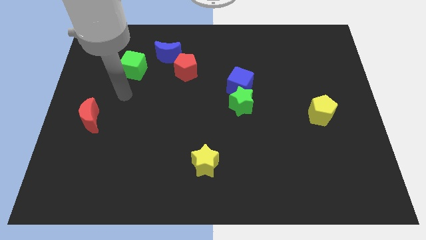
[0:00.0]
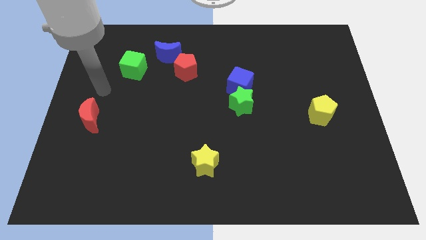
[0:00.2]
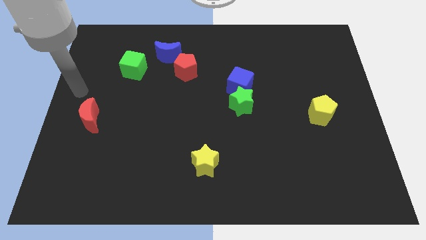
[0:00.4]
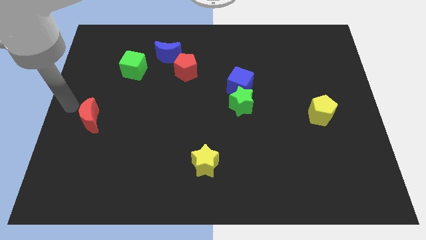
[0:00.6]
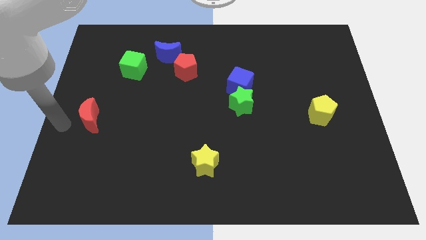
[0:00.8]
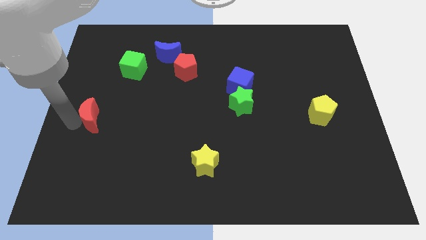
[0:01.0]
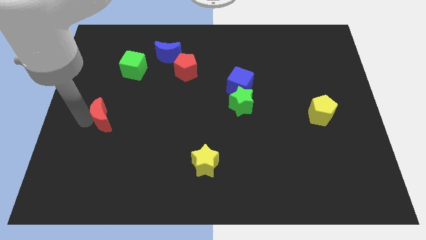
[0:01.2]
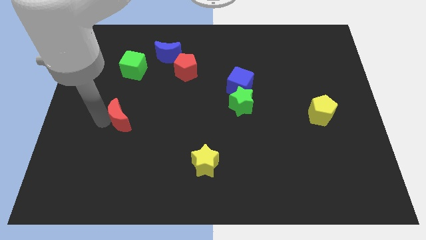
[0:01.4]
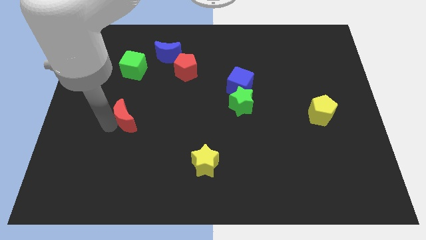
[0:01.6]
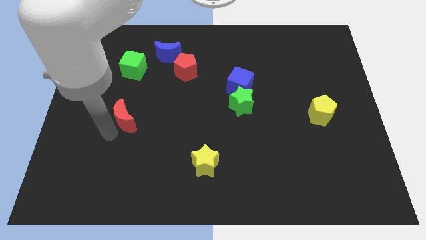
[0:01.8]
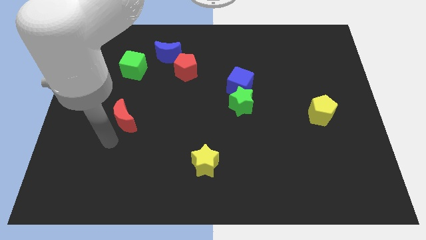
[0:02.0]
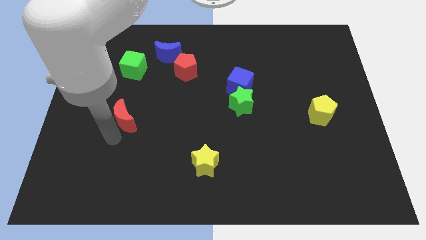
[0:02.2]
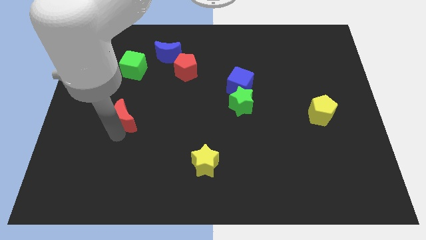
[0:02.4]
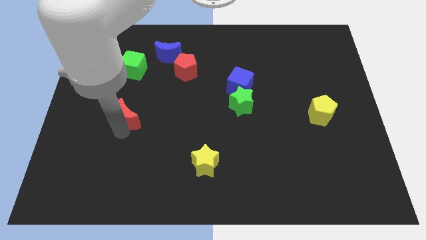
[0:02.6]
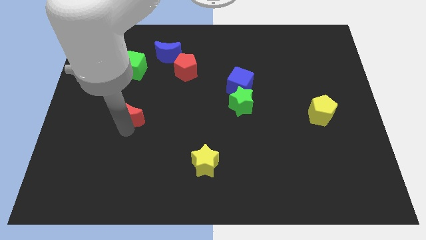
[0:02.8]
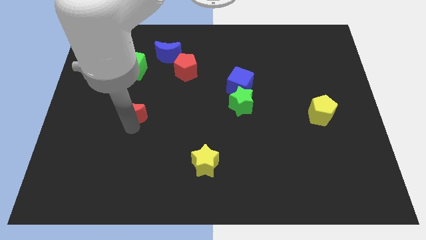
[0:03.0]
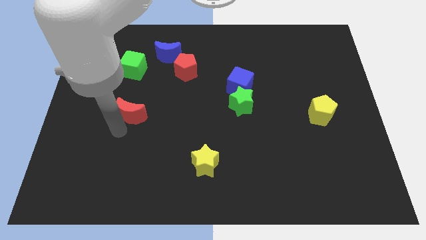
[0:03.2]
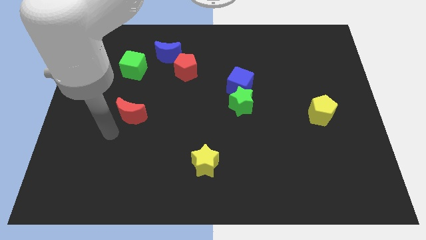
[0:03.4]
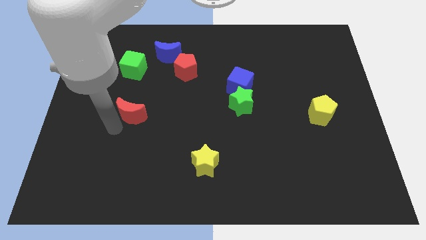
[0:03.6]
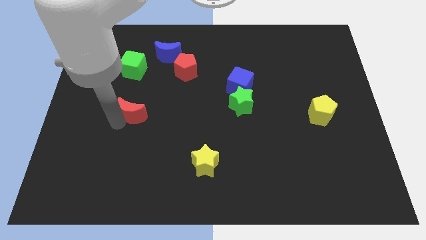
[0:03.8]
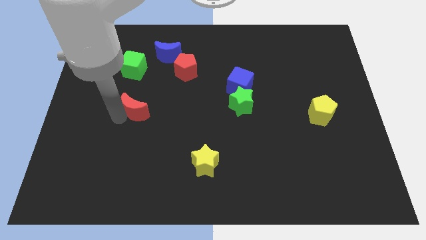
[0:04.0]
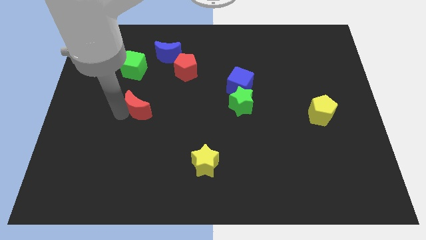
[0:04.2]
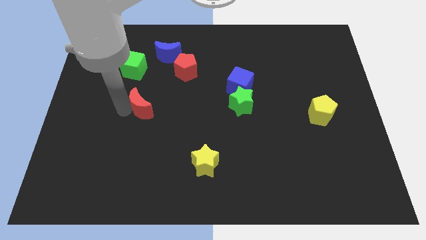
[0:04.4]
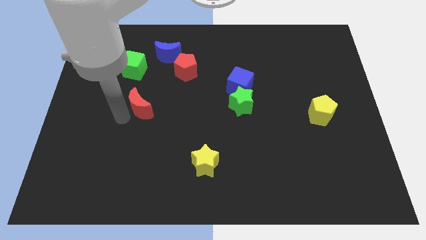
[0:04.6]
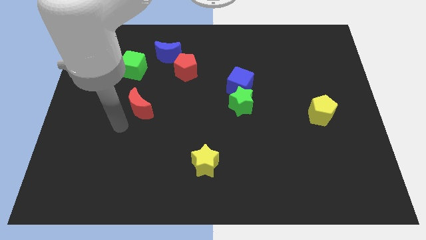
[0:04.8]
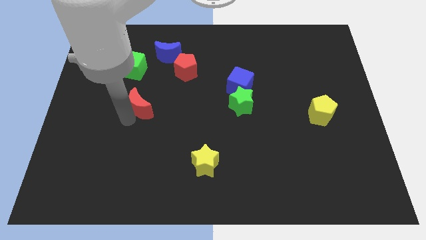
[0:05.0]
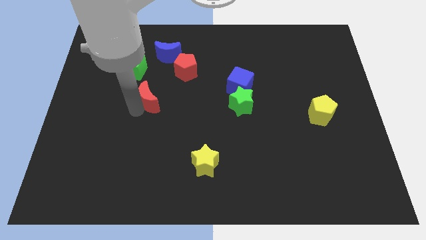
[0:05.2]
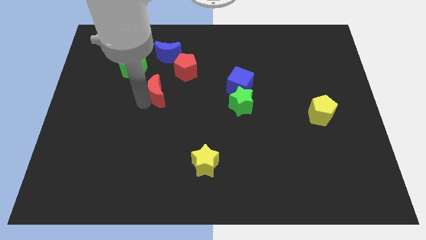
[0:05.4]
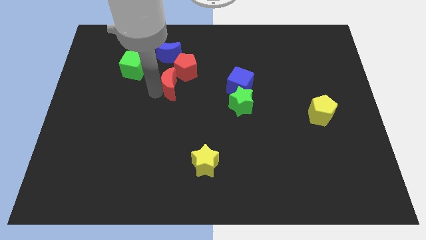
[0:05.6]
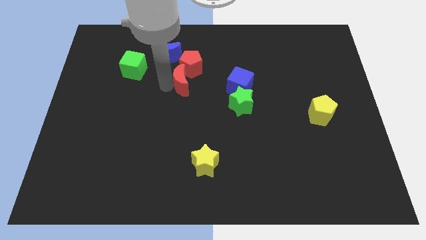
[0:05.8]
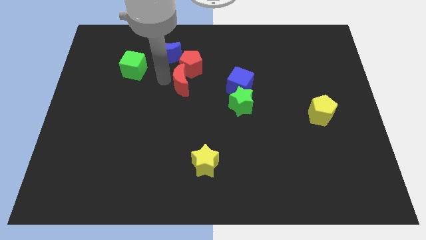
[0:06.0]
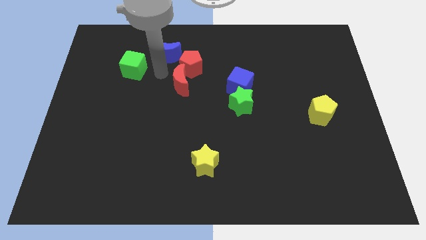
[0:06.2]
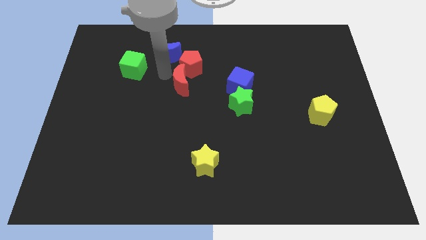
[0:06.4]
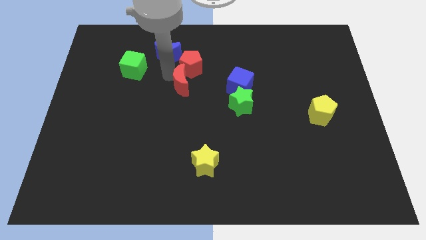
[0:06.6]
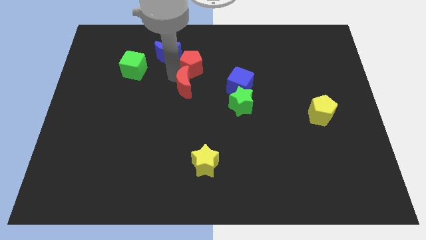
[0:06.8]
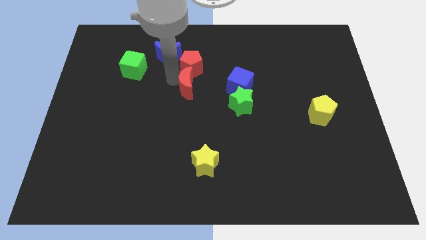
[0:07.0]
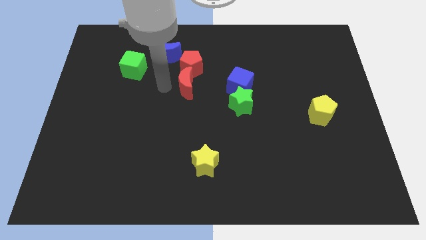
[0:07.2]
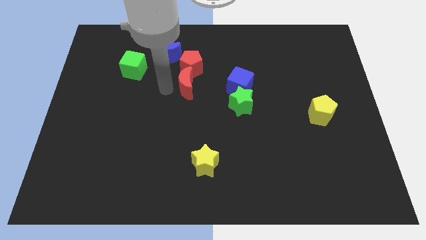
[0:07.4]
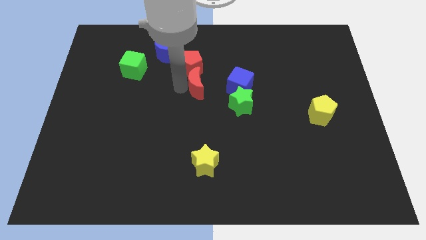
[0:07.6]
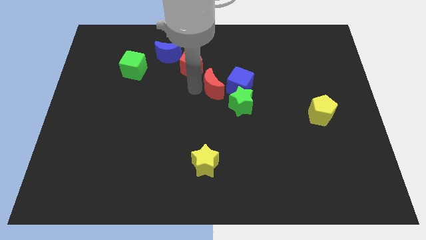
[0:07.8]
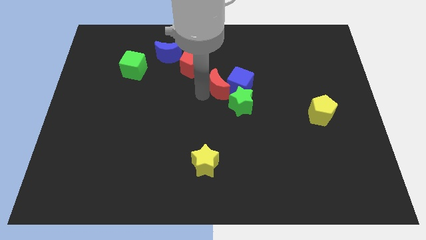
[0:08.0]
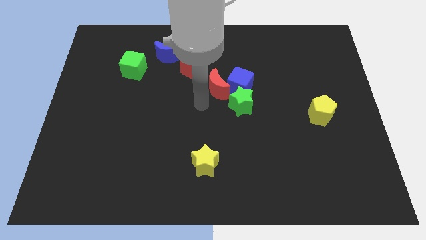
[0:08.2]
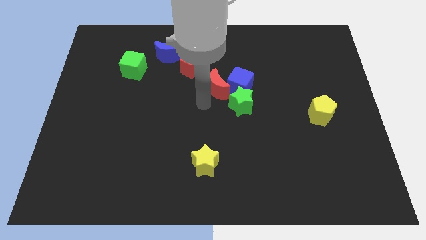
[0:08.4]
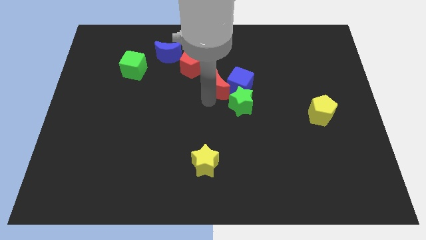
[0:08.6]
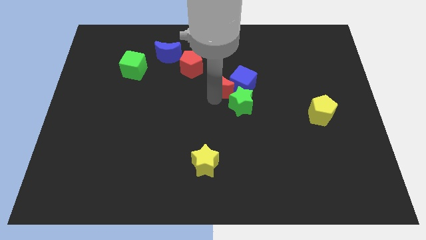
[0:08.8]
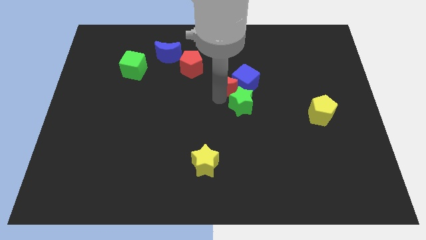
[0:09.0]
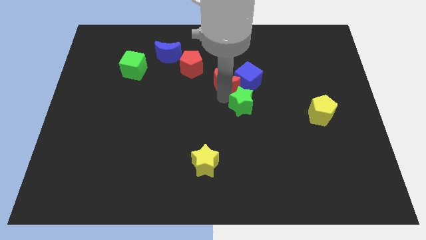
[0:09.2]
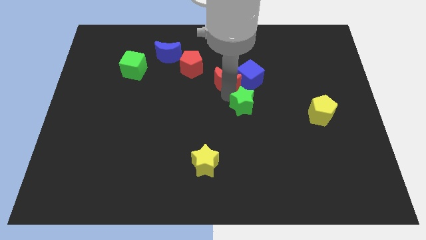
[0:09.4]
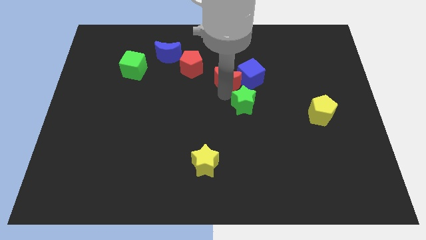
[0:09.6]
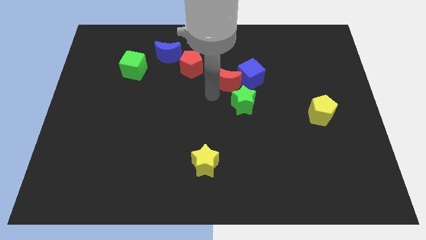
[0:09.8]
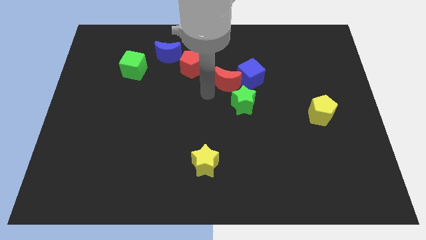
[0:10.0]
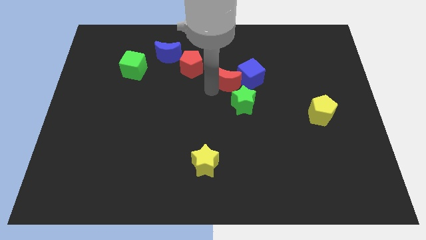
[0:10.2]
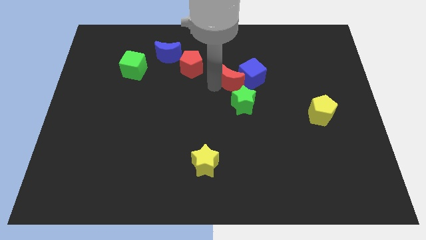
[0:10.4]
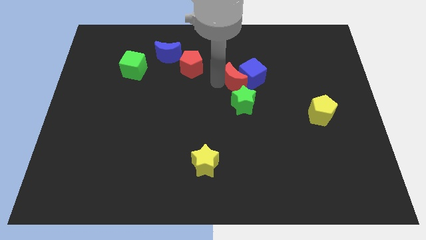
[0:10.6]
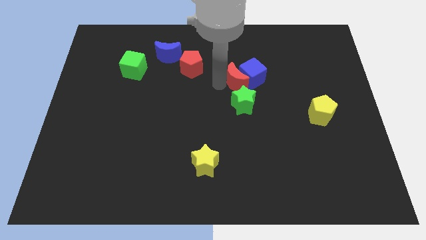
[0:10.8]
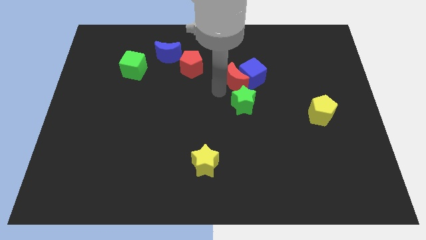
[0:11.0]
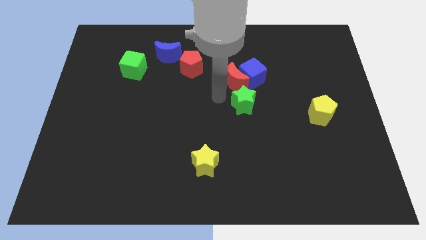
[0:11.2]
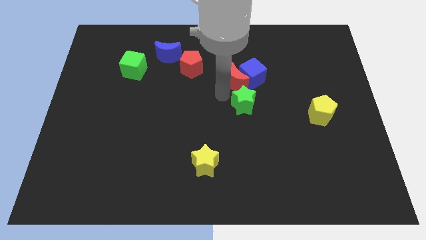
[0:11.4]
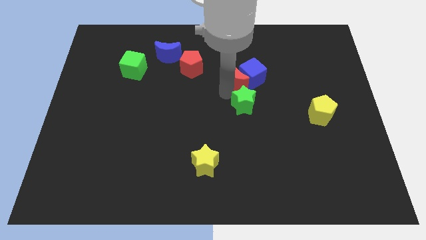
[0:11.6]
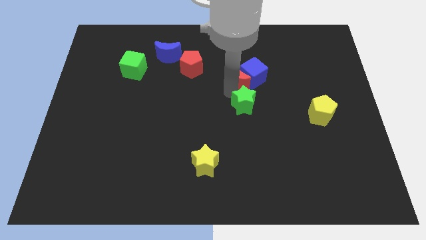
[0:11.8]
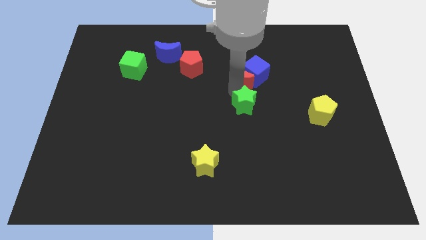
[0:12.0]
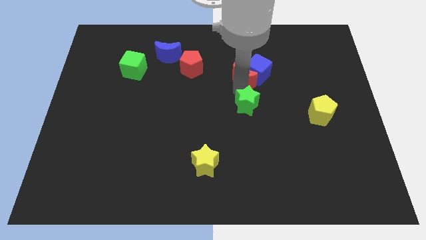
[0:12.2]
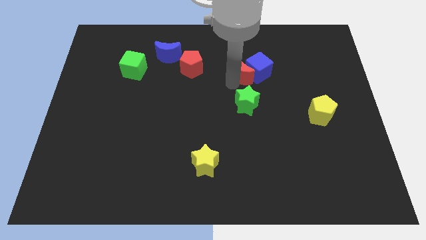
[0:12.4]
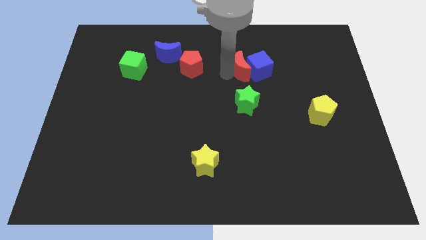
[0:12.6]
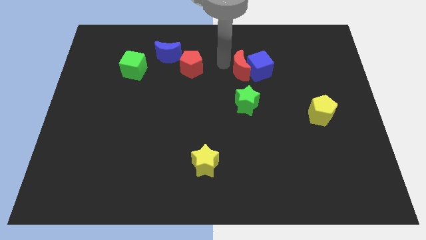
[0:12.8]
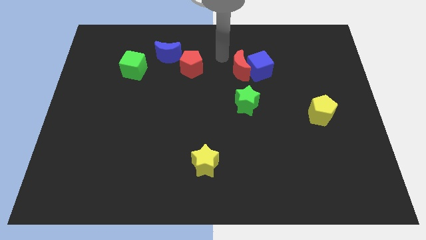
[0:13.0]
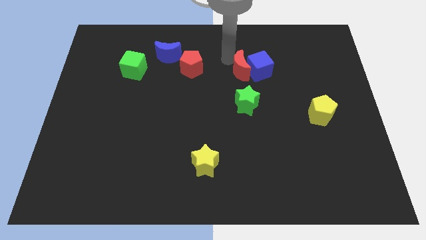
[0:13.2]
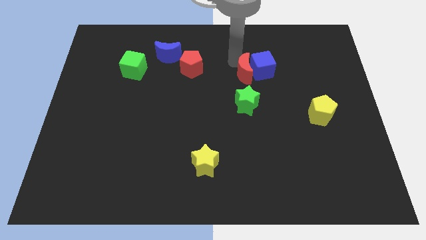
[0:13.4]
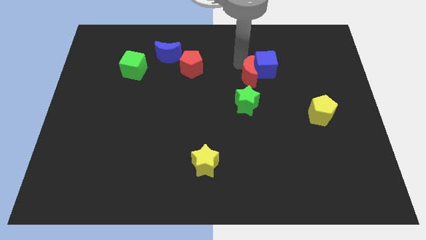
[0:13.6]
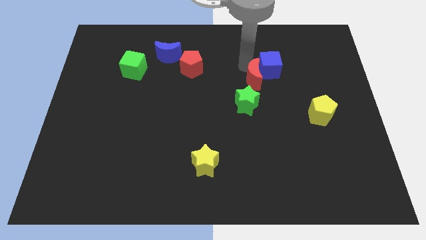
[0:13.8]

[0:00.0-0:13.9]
put the red moon diagonally up and to the right of the green star

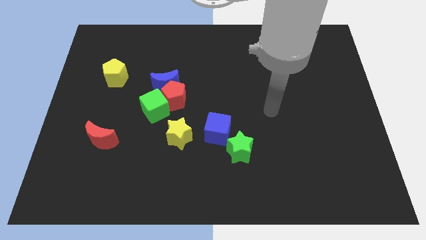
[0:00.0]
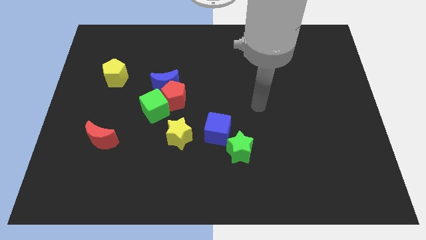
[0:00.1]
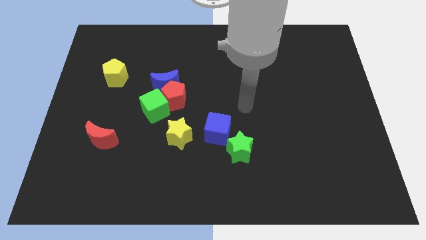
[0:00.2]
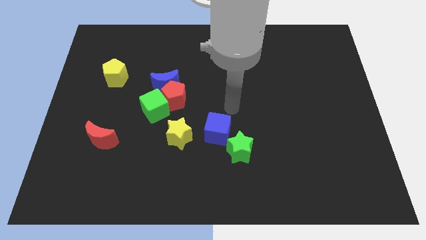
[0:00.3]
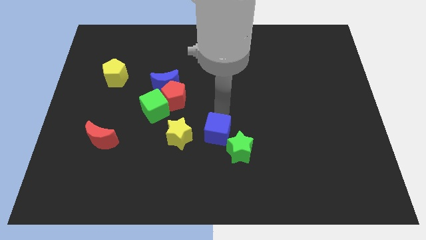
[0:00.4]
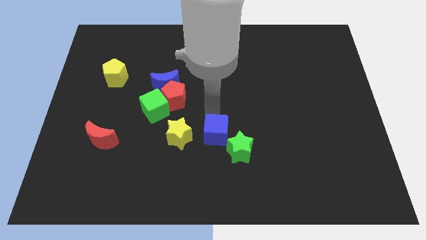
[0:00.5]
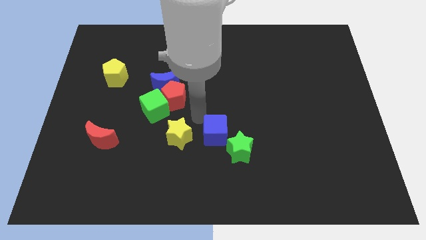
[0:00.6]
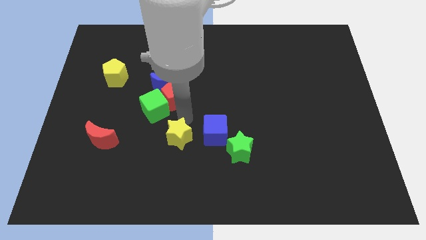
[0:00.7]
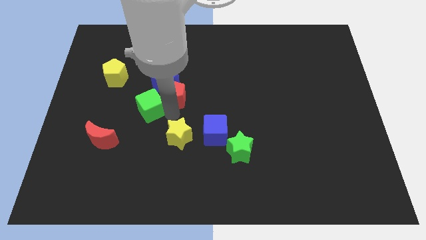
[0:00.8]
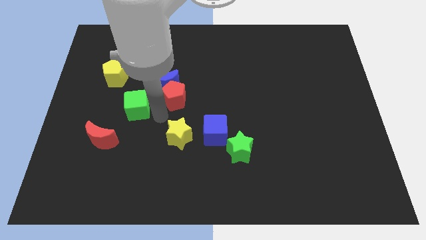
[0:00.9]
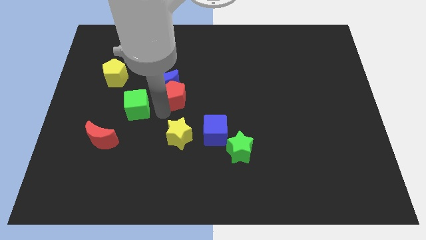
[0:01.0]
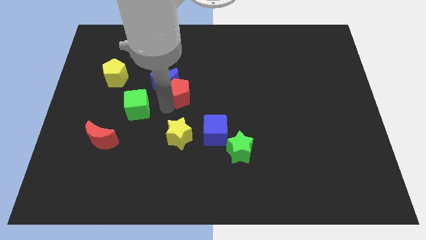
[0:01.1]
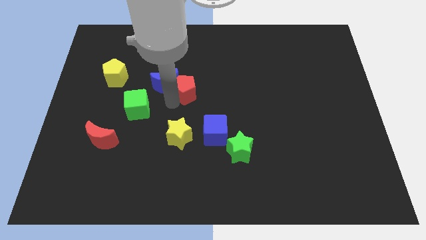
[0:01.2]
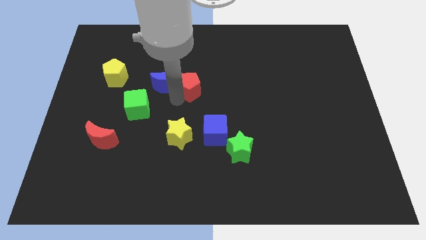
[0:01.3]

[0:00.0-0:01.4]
move the red pentagon to the top right of the blue moon
